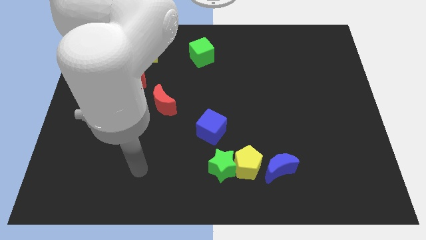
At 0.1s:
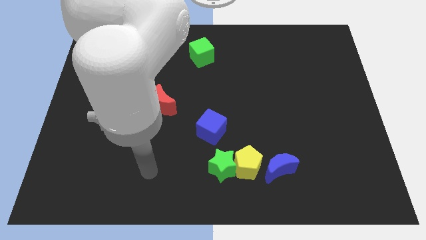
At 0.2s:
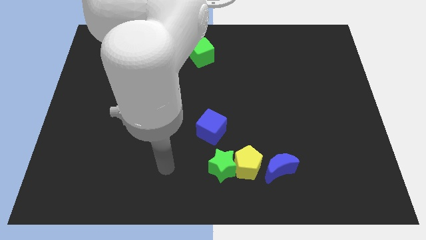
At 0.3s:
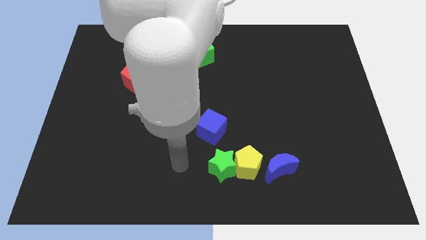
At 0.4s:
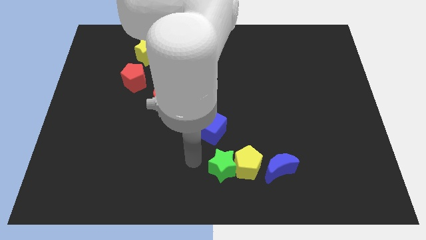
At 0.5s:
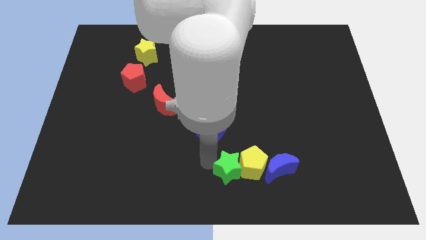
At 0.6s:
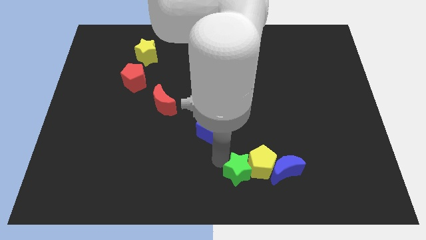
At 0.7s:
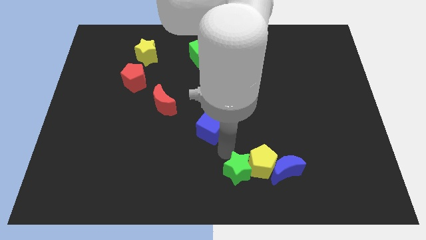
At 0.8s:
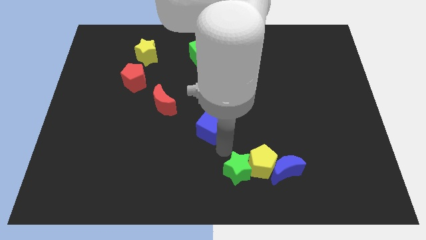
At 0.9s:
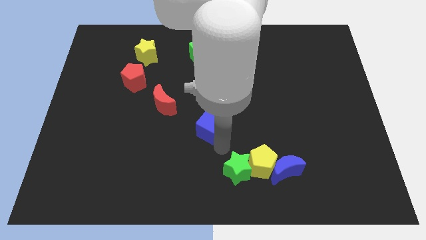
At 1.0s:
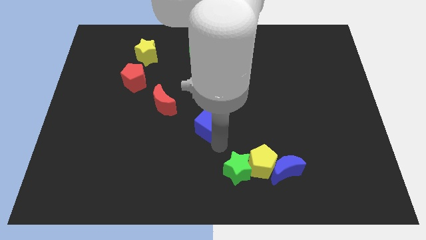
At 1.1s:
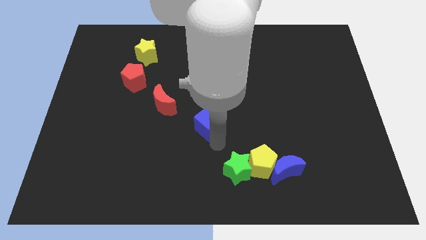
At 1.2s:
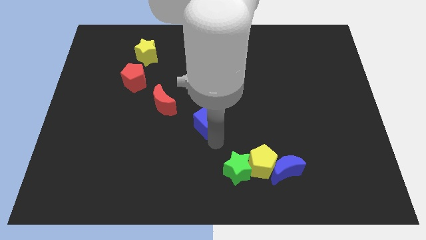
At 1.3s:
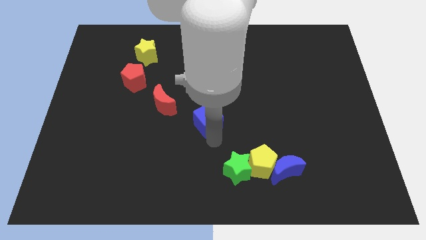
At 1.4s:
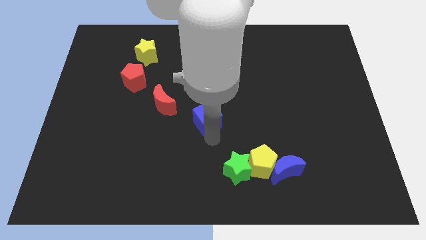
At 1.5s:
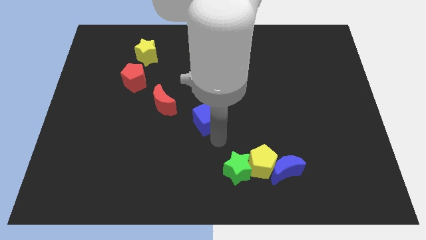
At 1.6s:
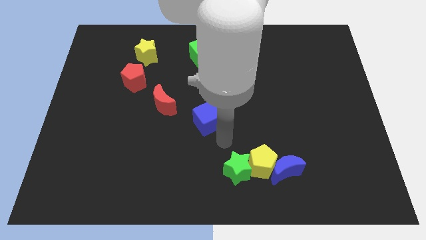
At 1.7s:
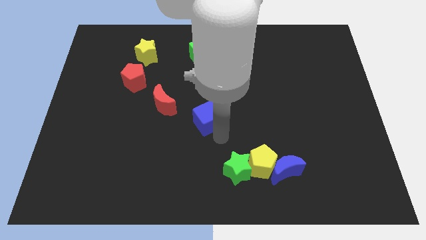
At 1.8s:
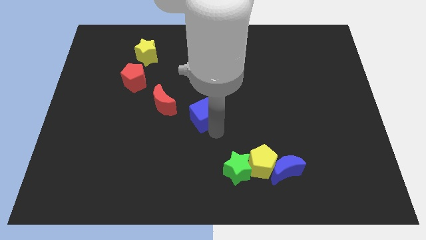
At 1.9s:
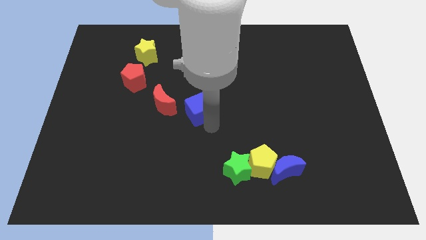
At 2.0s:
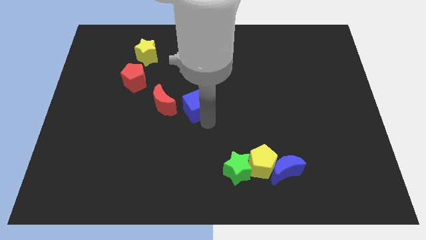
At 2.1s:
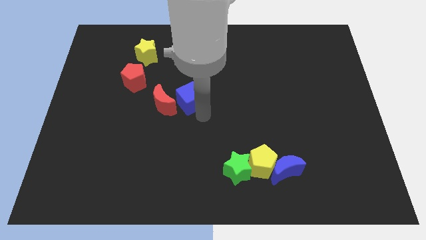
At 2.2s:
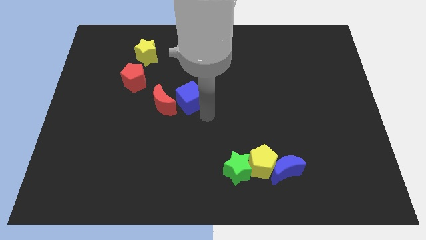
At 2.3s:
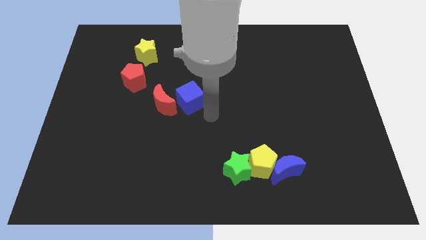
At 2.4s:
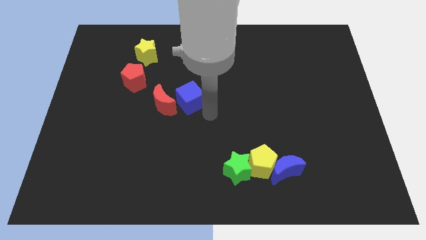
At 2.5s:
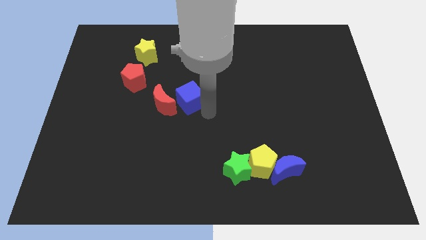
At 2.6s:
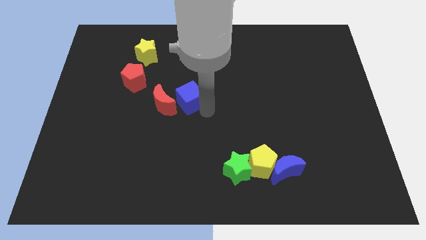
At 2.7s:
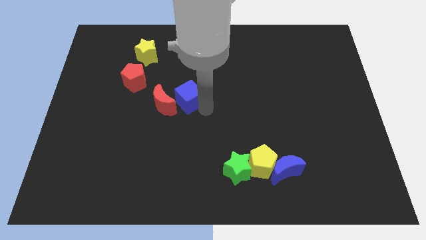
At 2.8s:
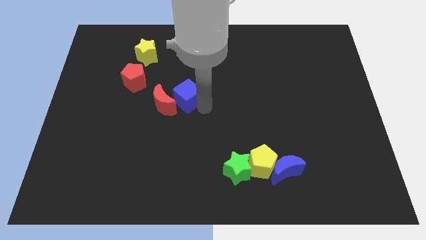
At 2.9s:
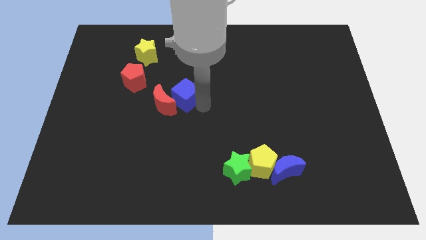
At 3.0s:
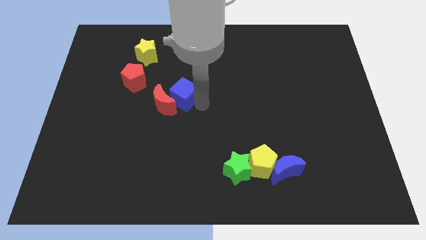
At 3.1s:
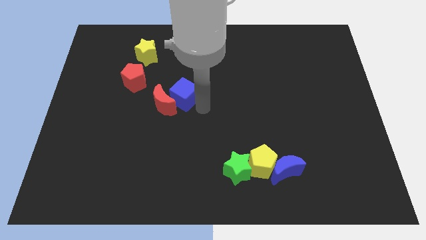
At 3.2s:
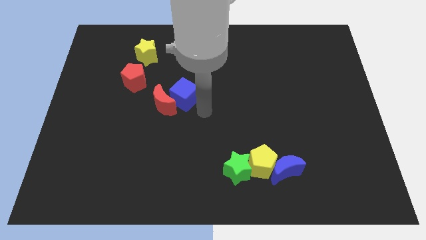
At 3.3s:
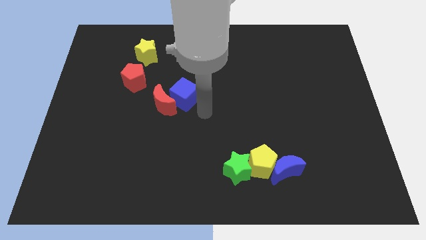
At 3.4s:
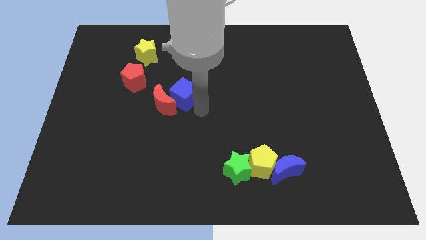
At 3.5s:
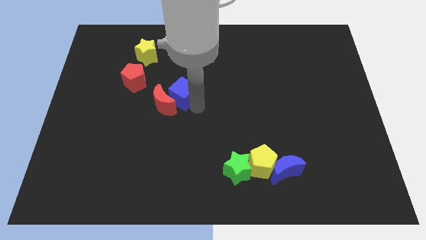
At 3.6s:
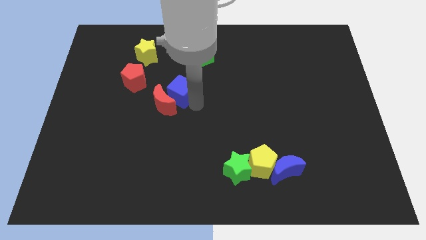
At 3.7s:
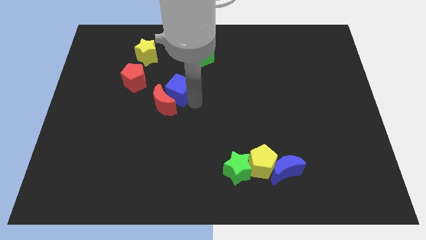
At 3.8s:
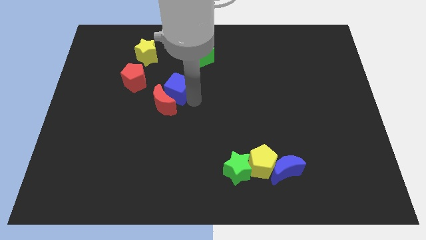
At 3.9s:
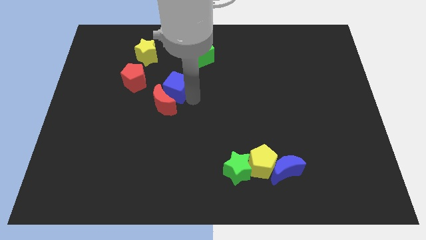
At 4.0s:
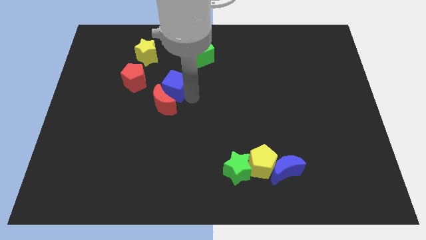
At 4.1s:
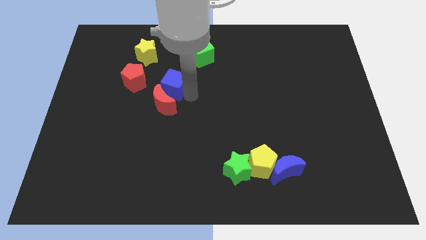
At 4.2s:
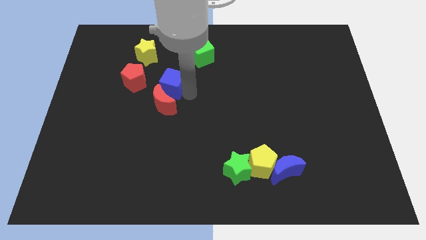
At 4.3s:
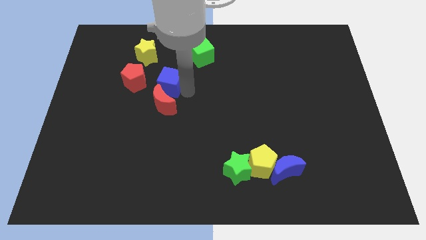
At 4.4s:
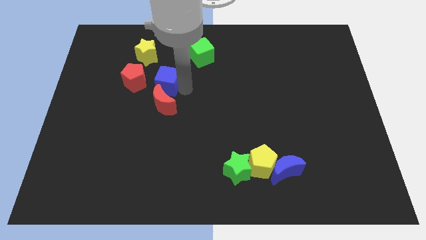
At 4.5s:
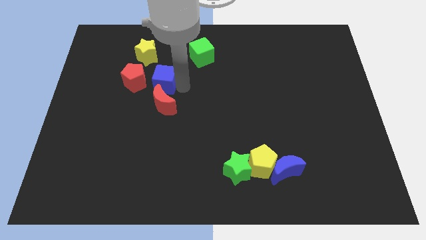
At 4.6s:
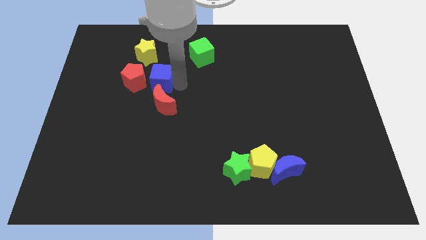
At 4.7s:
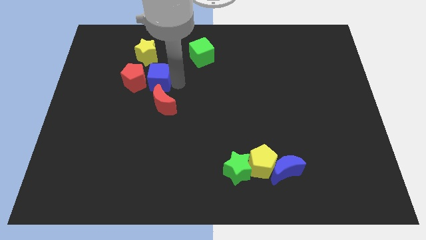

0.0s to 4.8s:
push the blue cube close to the red pentagon

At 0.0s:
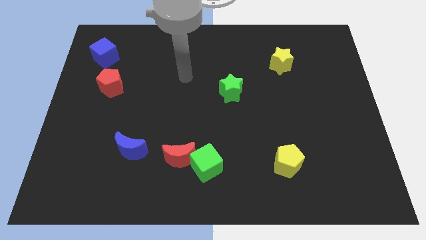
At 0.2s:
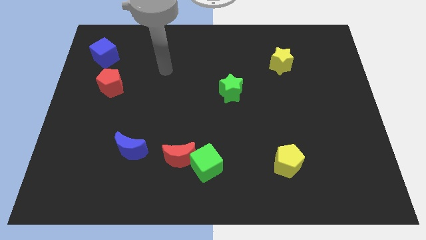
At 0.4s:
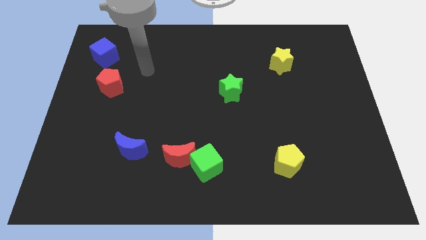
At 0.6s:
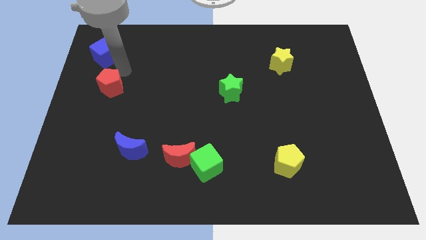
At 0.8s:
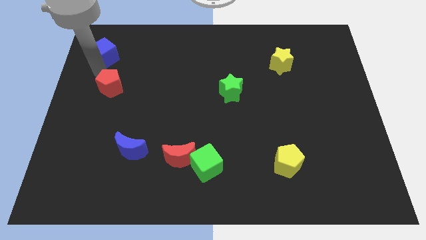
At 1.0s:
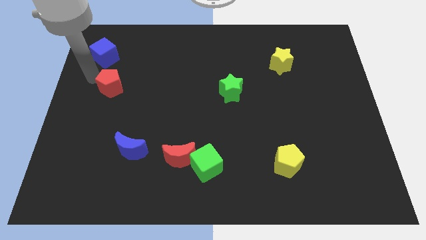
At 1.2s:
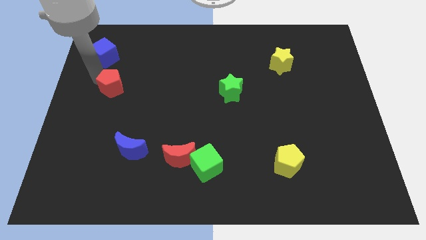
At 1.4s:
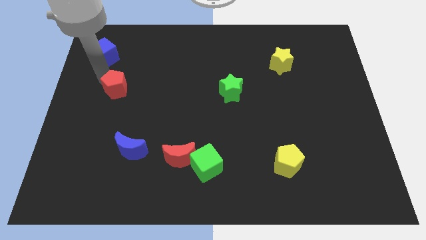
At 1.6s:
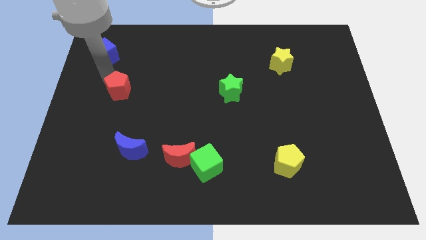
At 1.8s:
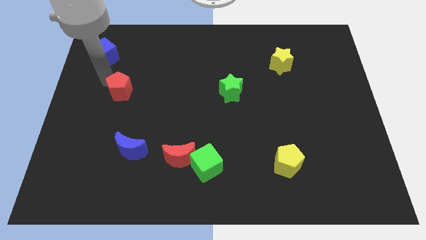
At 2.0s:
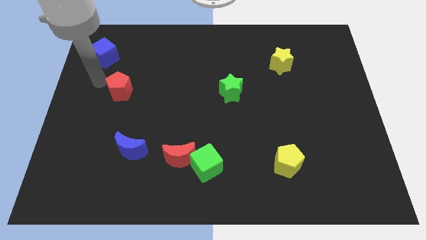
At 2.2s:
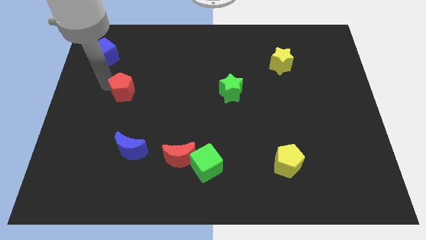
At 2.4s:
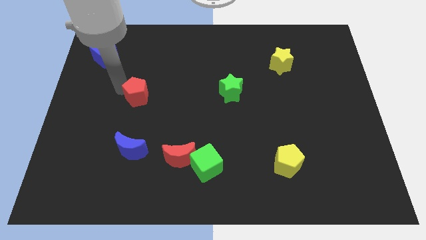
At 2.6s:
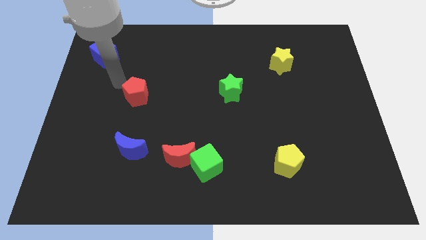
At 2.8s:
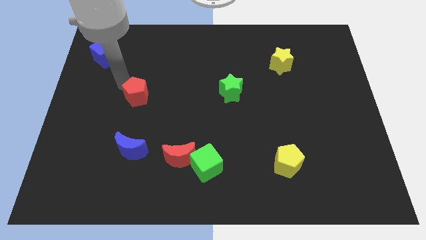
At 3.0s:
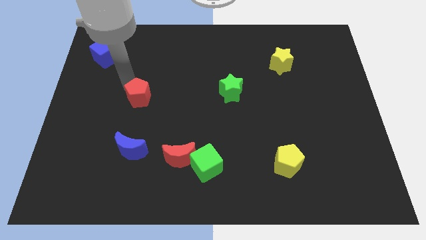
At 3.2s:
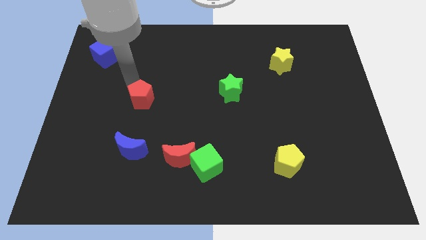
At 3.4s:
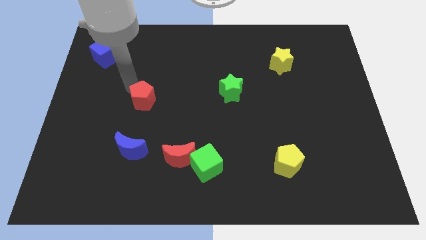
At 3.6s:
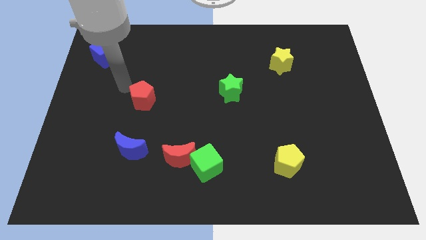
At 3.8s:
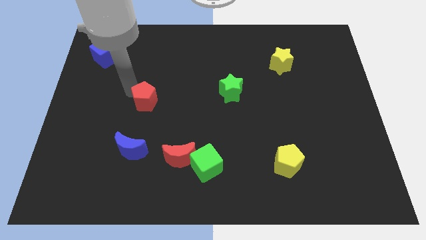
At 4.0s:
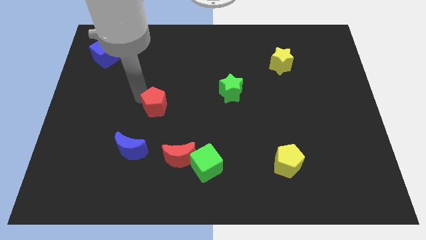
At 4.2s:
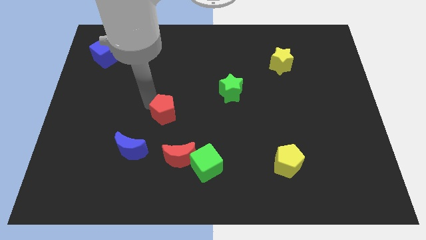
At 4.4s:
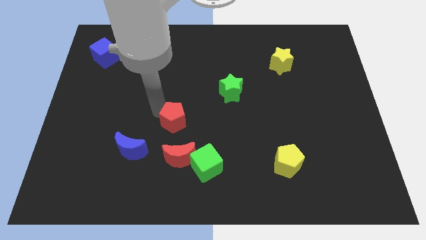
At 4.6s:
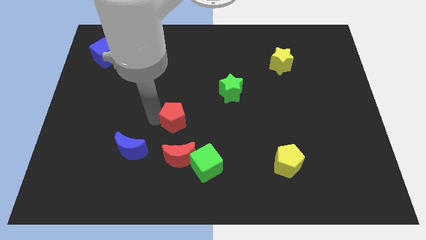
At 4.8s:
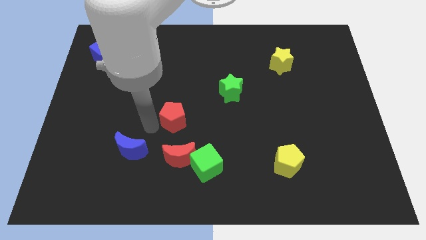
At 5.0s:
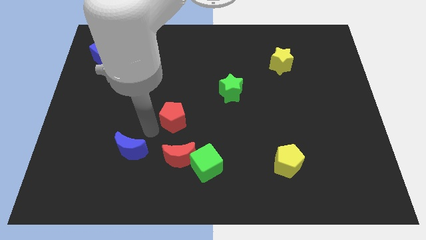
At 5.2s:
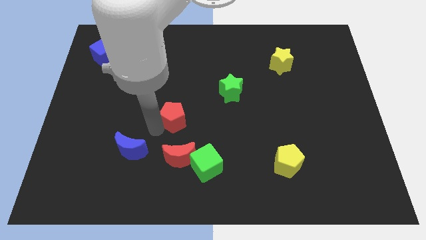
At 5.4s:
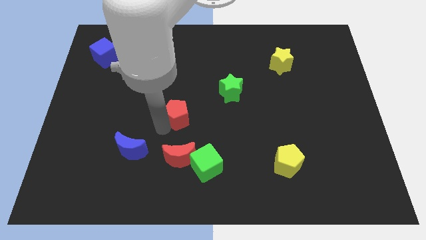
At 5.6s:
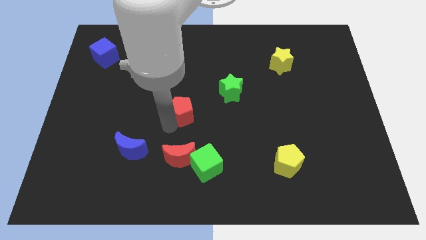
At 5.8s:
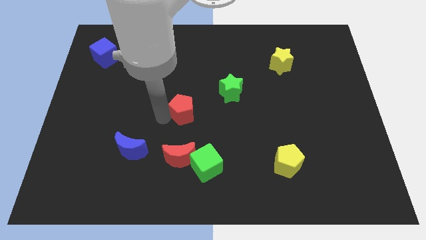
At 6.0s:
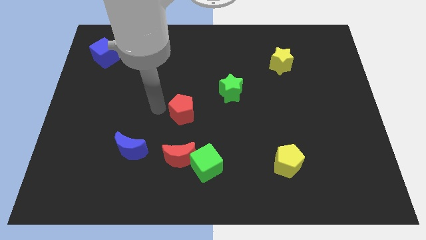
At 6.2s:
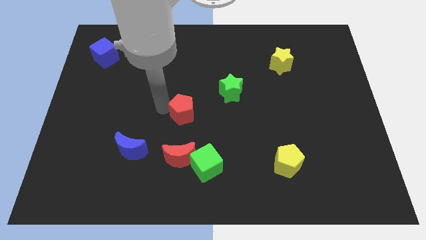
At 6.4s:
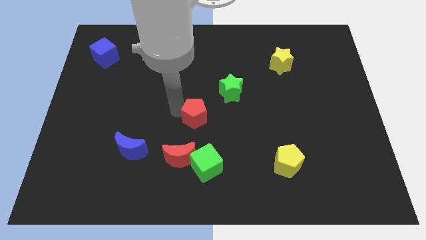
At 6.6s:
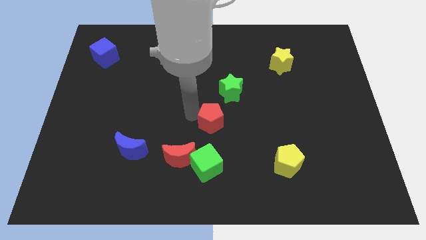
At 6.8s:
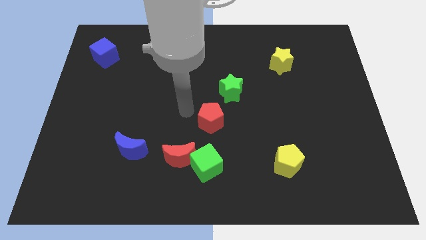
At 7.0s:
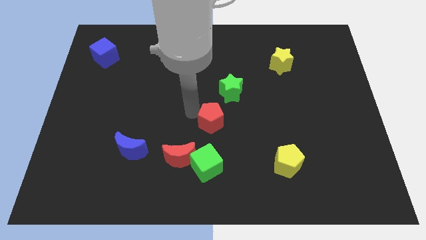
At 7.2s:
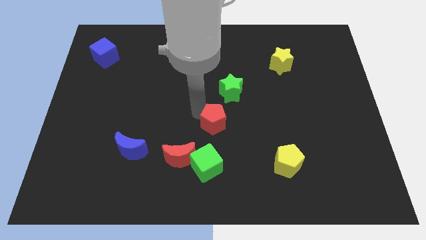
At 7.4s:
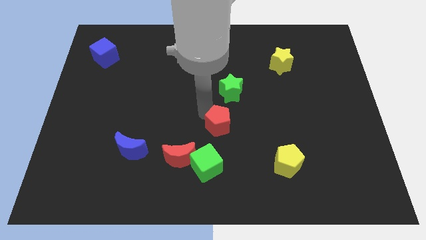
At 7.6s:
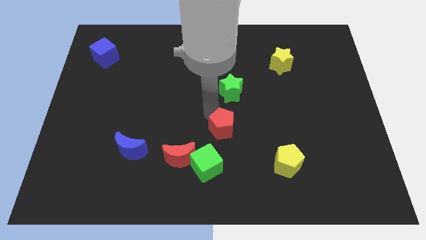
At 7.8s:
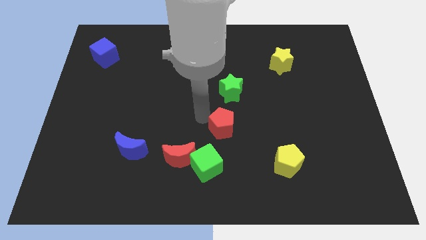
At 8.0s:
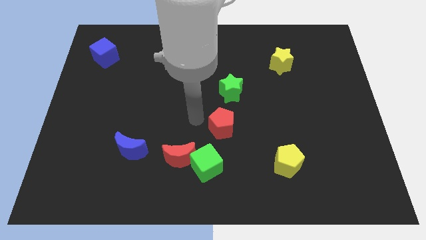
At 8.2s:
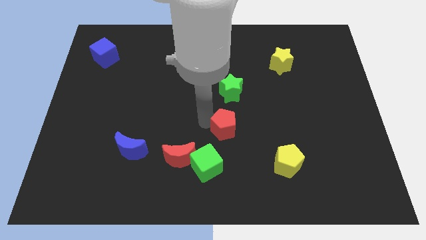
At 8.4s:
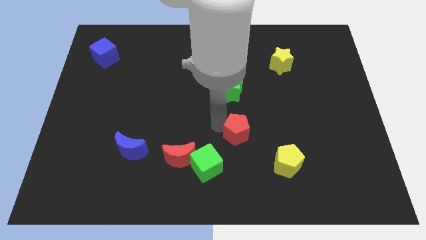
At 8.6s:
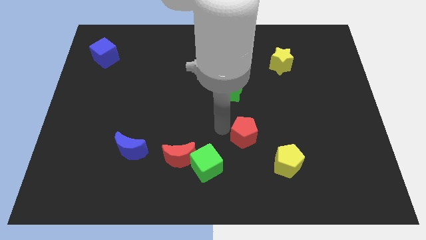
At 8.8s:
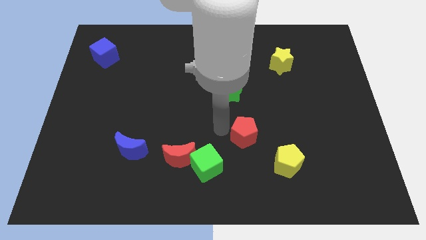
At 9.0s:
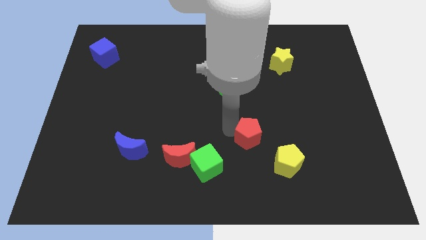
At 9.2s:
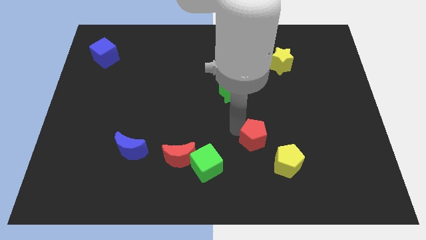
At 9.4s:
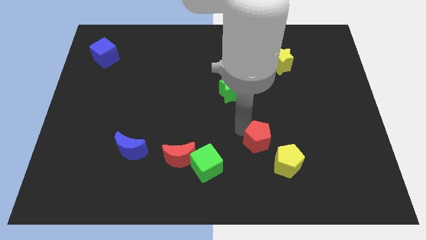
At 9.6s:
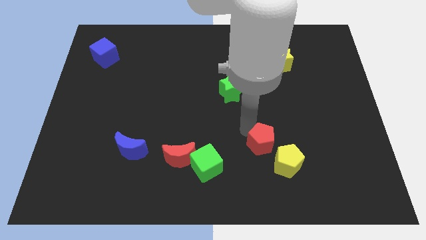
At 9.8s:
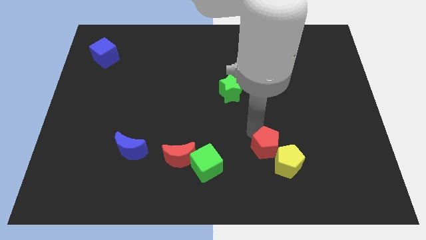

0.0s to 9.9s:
put the red pentagon close to the yellow pentagon
